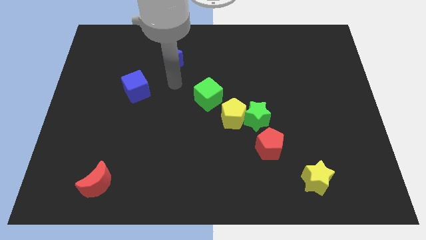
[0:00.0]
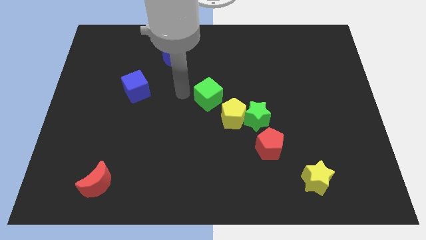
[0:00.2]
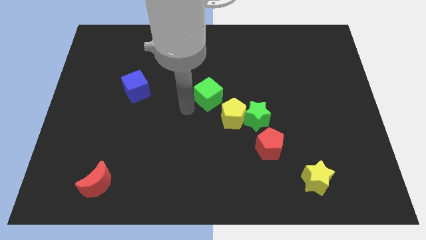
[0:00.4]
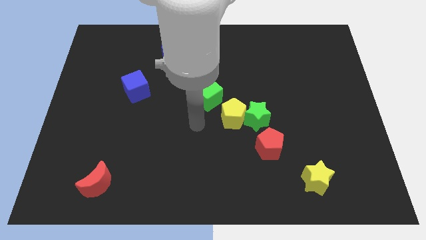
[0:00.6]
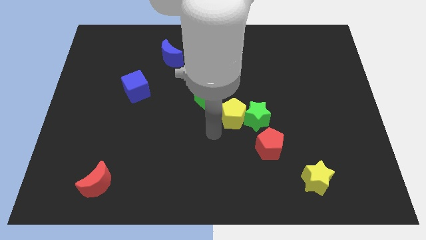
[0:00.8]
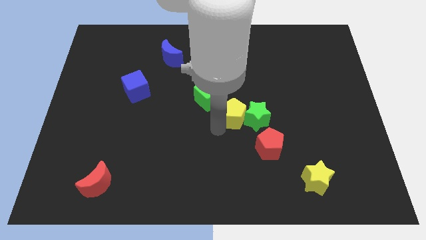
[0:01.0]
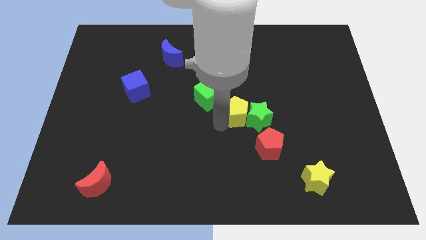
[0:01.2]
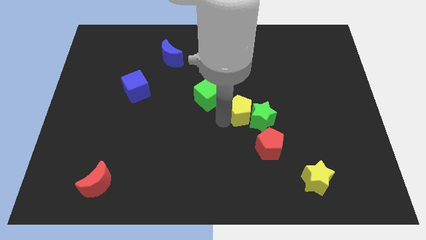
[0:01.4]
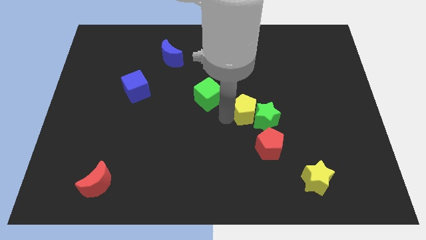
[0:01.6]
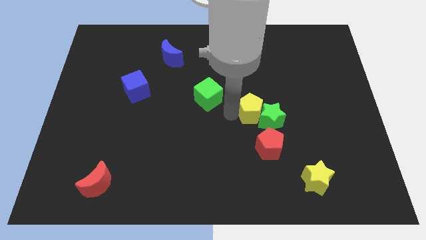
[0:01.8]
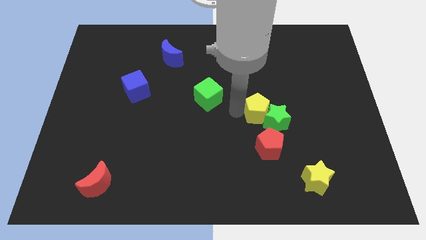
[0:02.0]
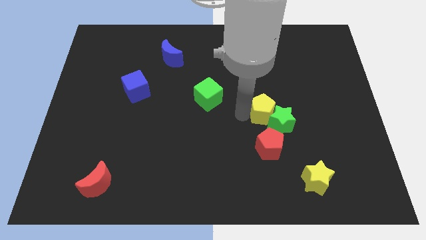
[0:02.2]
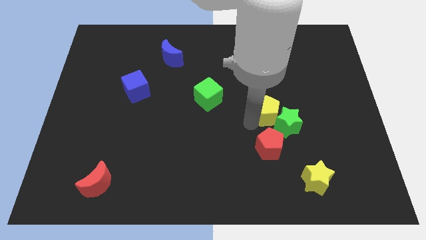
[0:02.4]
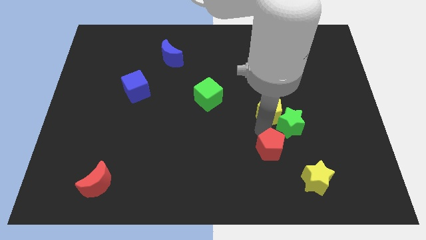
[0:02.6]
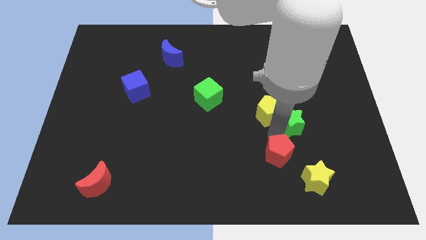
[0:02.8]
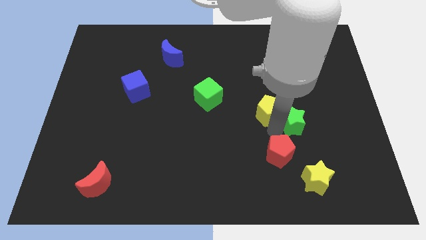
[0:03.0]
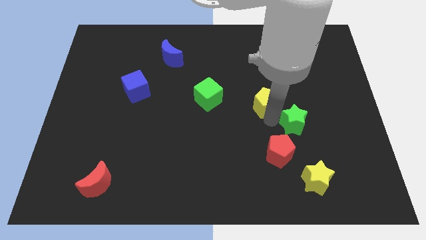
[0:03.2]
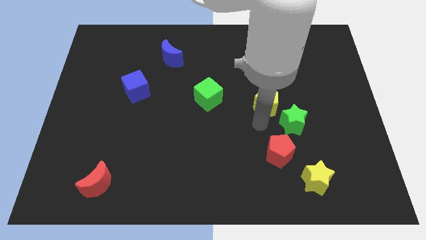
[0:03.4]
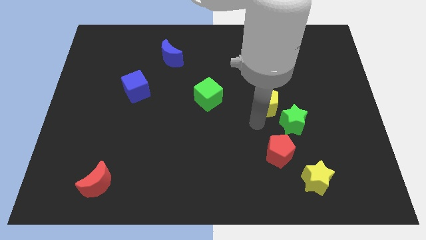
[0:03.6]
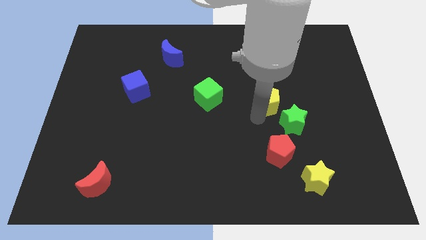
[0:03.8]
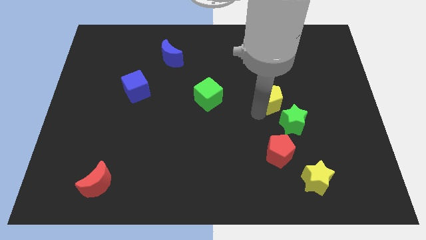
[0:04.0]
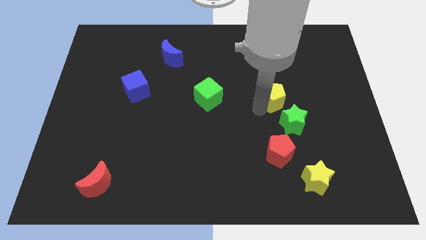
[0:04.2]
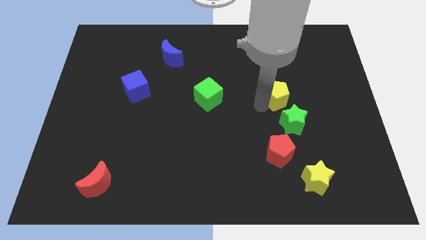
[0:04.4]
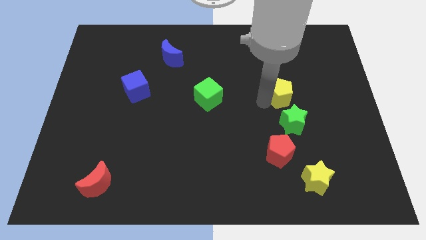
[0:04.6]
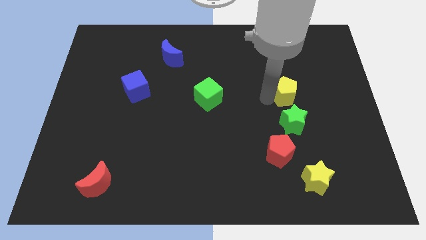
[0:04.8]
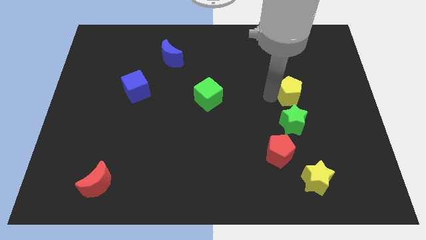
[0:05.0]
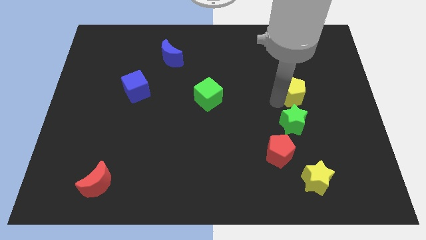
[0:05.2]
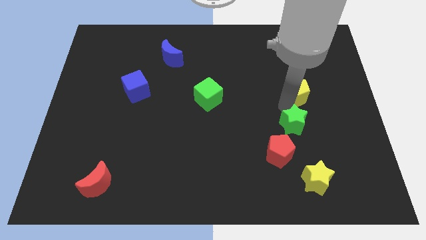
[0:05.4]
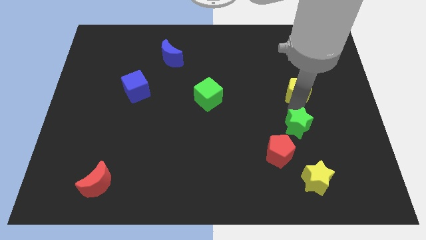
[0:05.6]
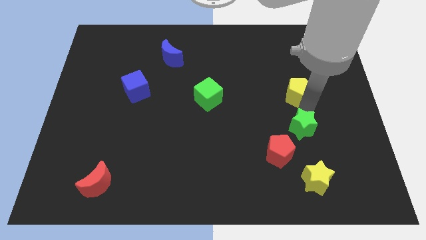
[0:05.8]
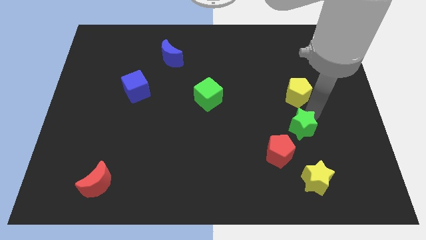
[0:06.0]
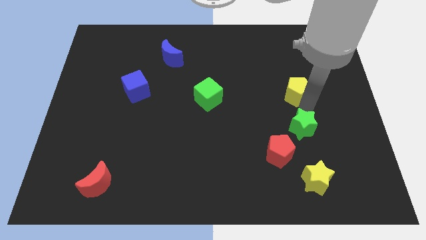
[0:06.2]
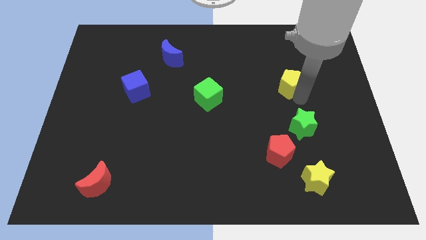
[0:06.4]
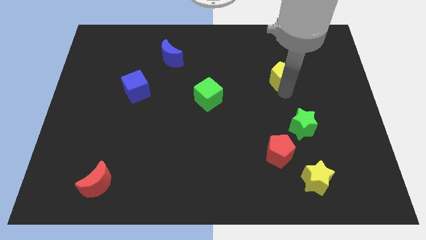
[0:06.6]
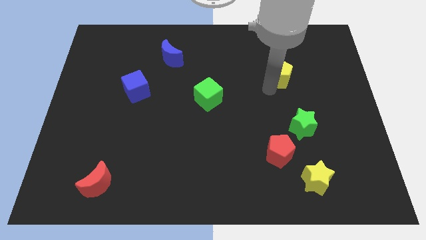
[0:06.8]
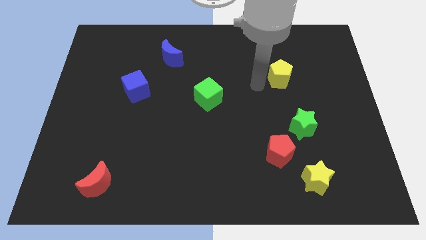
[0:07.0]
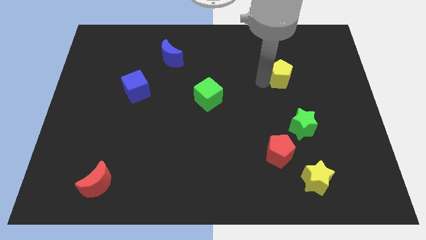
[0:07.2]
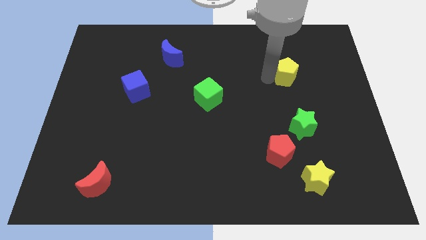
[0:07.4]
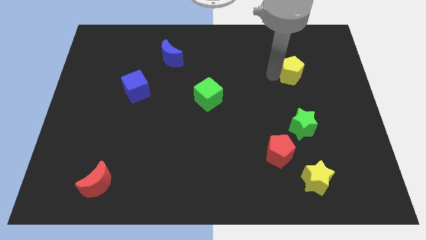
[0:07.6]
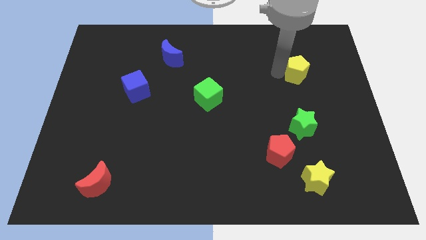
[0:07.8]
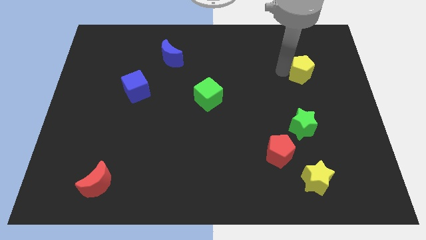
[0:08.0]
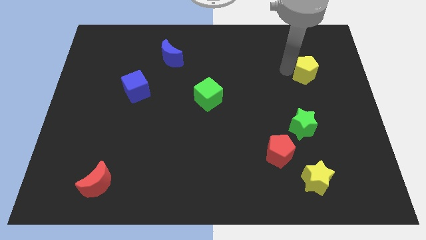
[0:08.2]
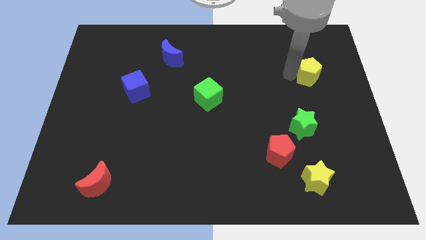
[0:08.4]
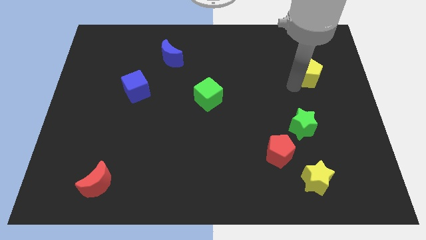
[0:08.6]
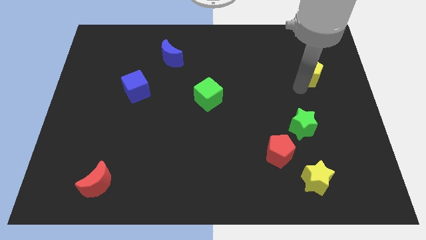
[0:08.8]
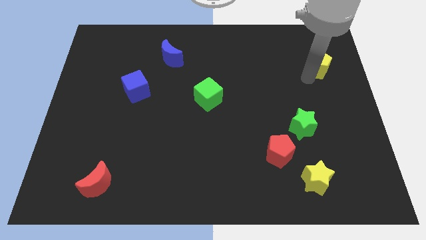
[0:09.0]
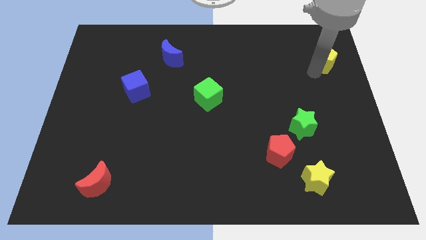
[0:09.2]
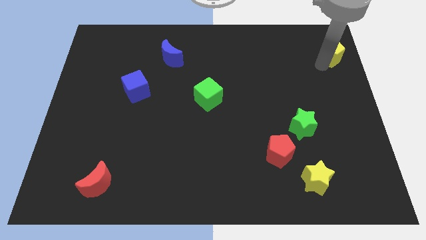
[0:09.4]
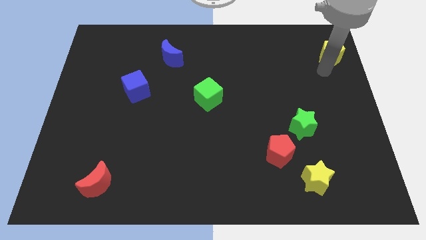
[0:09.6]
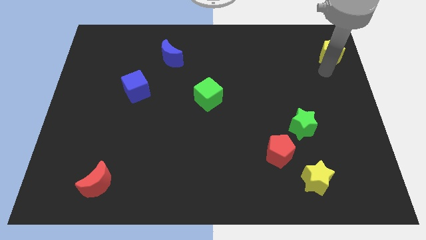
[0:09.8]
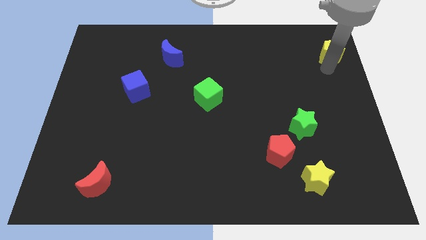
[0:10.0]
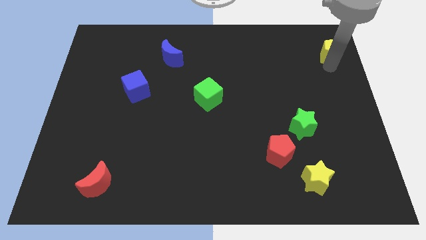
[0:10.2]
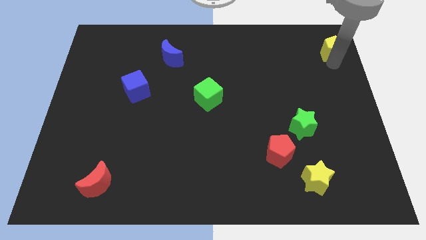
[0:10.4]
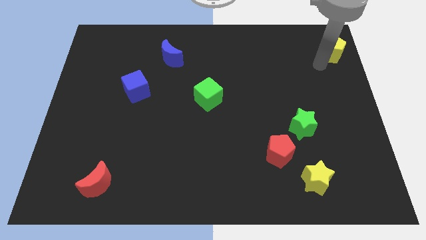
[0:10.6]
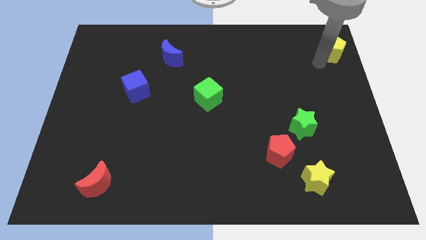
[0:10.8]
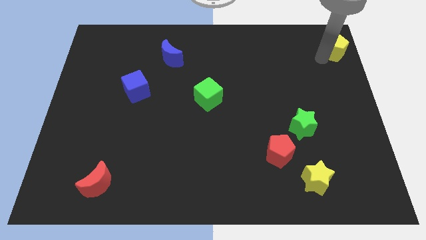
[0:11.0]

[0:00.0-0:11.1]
put the yellow pentagon to the top right

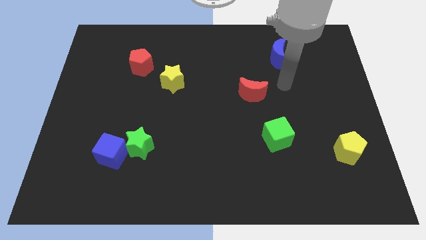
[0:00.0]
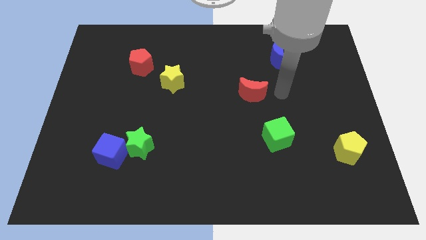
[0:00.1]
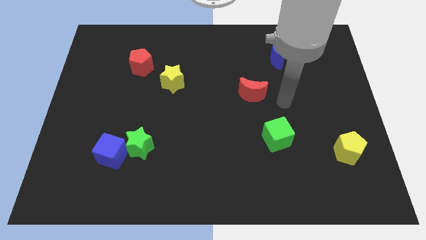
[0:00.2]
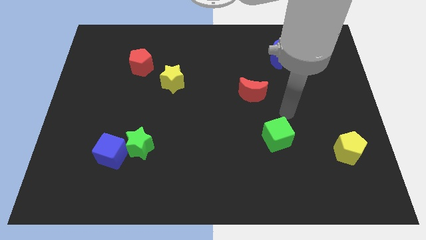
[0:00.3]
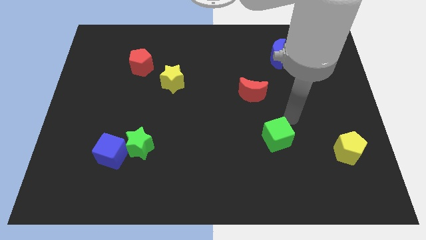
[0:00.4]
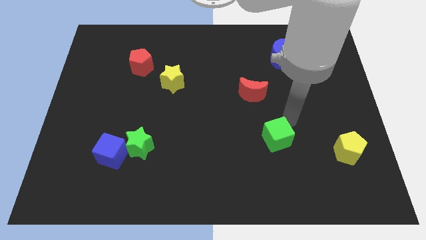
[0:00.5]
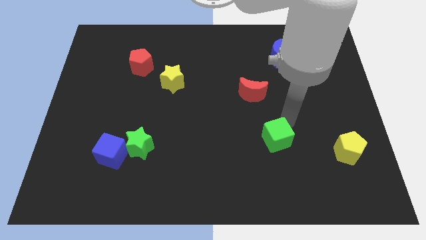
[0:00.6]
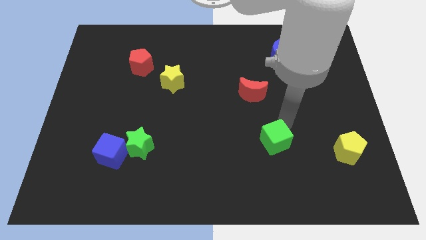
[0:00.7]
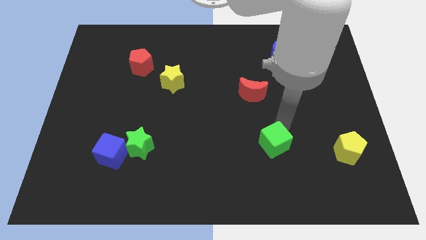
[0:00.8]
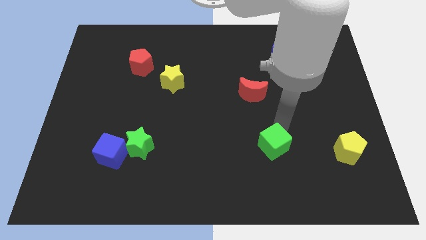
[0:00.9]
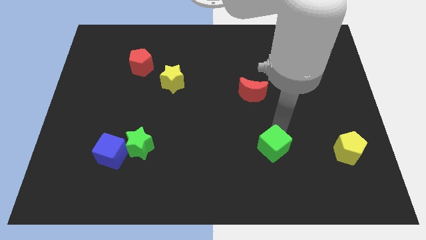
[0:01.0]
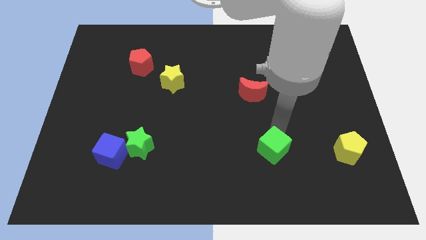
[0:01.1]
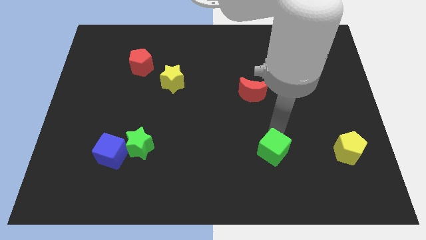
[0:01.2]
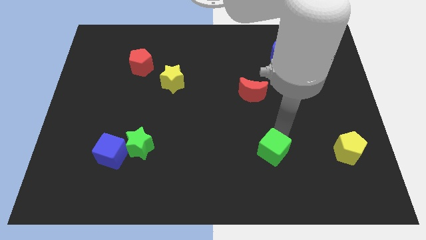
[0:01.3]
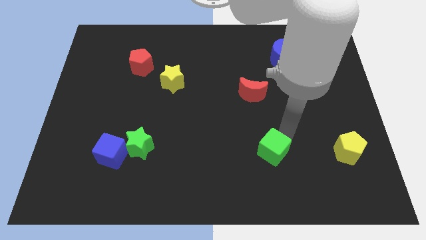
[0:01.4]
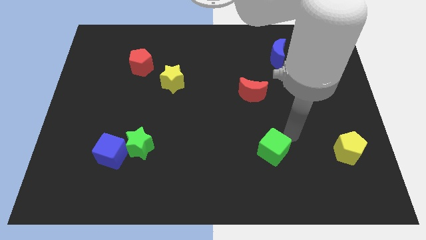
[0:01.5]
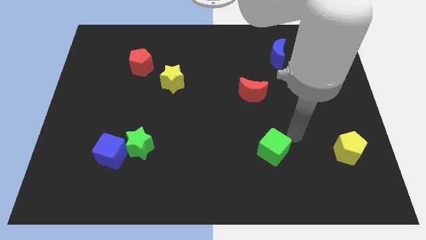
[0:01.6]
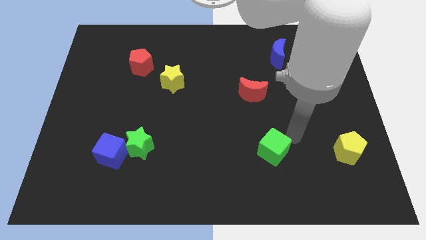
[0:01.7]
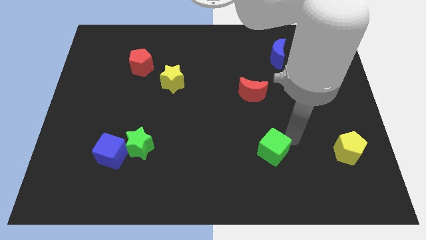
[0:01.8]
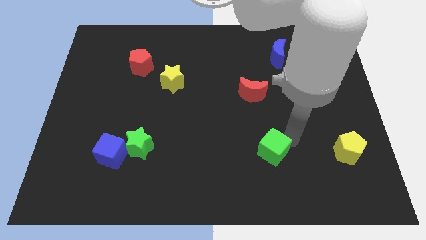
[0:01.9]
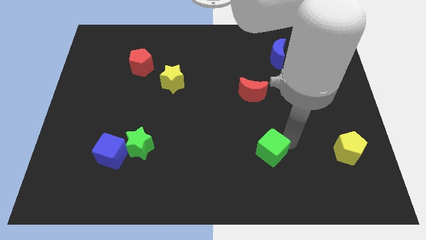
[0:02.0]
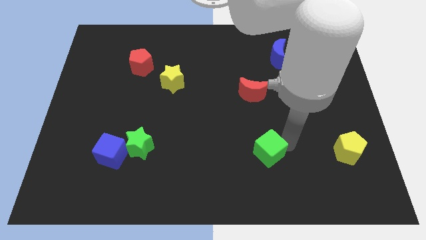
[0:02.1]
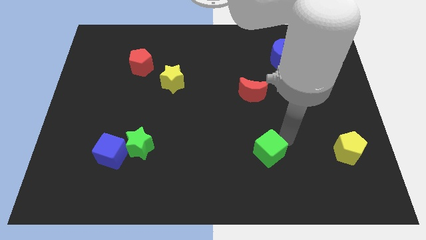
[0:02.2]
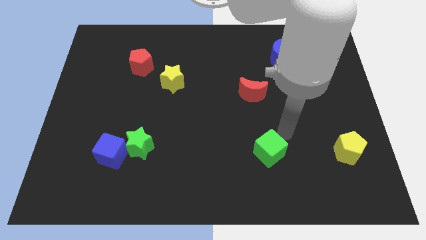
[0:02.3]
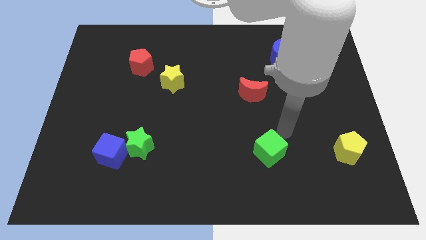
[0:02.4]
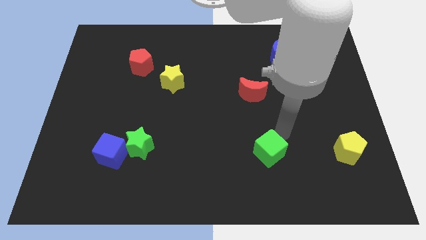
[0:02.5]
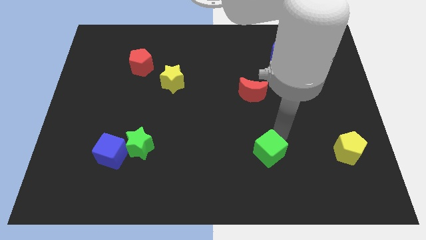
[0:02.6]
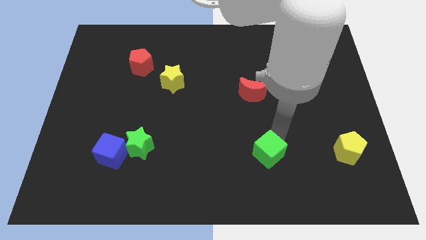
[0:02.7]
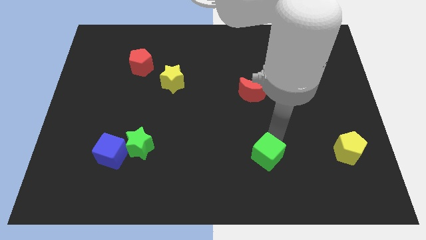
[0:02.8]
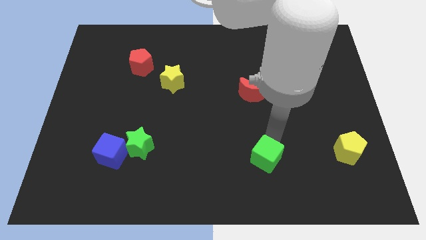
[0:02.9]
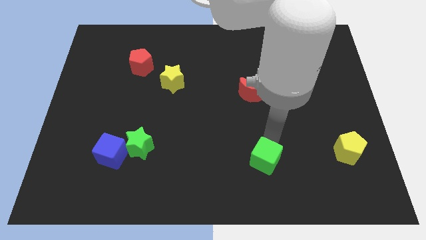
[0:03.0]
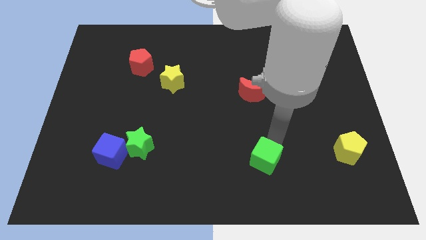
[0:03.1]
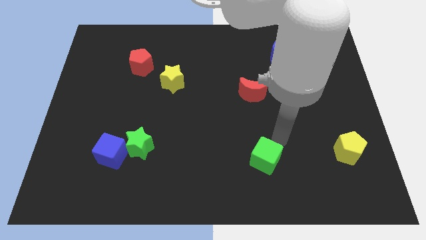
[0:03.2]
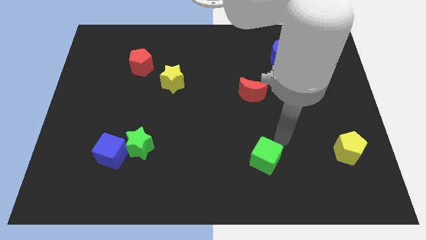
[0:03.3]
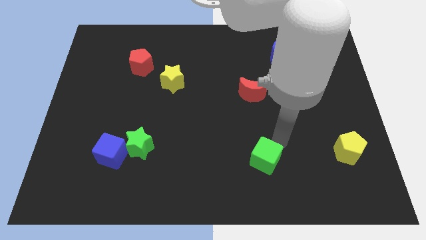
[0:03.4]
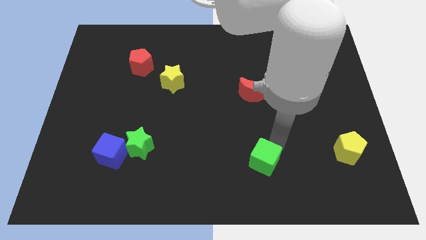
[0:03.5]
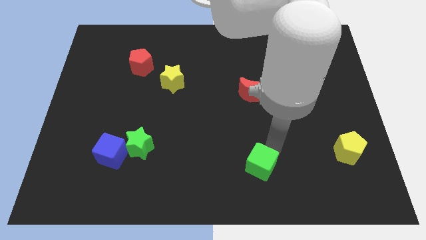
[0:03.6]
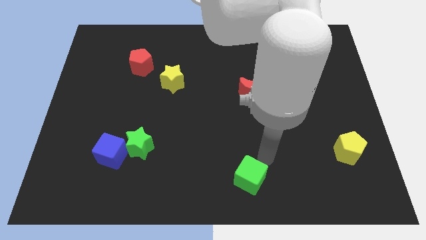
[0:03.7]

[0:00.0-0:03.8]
move the green cube to the bottom side
